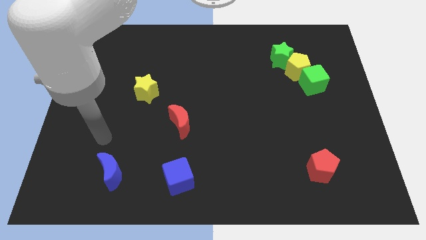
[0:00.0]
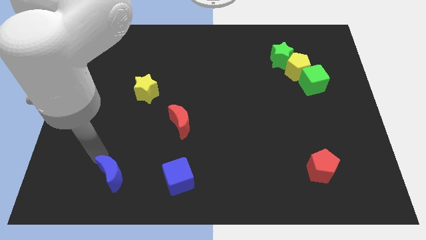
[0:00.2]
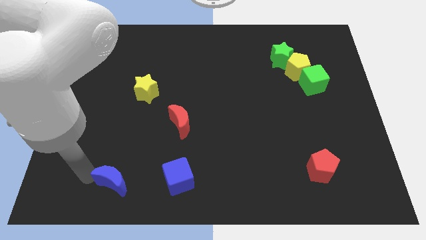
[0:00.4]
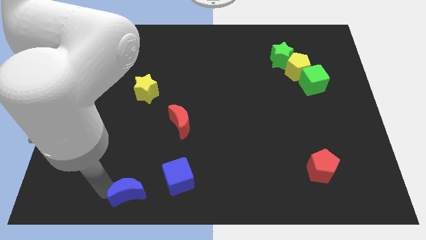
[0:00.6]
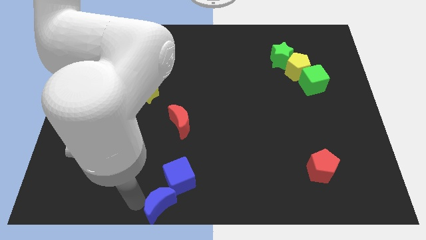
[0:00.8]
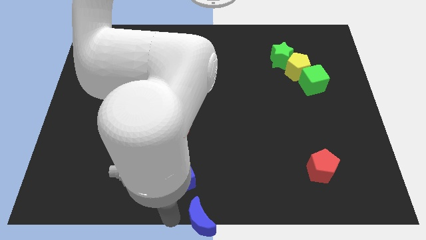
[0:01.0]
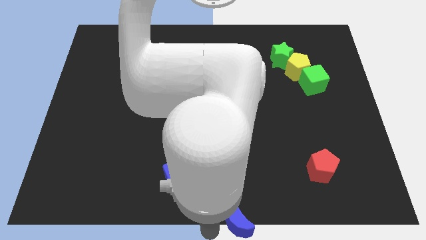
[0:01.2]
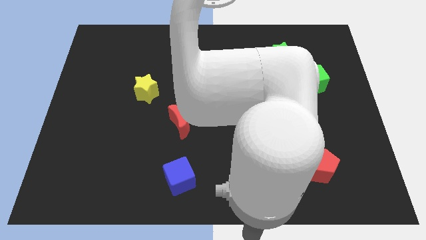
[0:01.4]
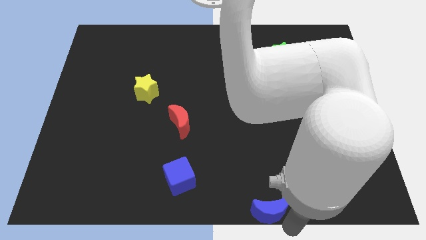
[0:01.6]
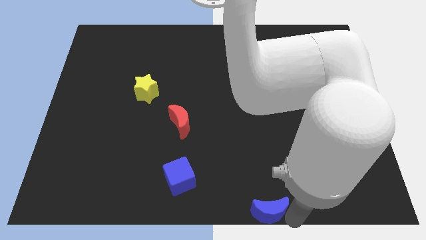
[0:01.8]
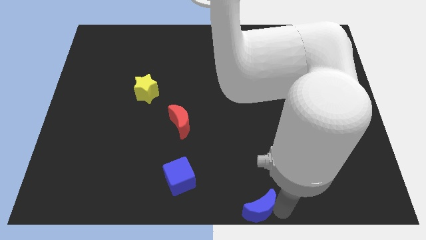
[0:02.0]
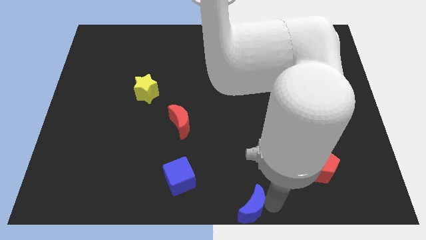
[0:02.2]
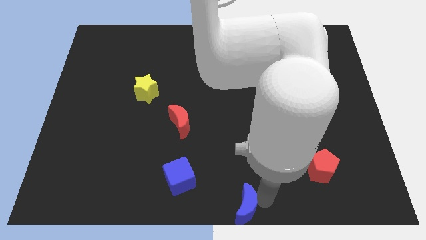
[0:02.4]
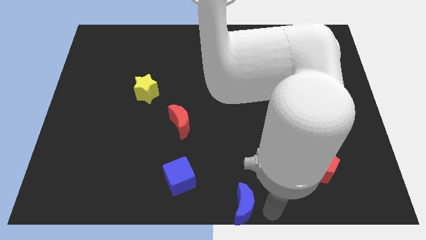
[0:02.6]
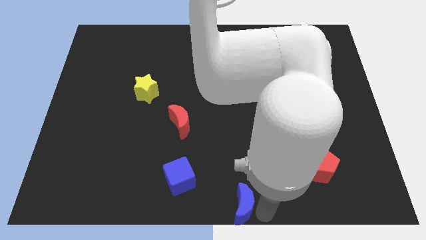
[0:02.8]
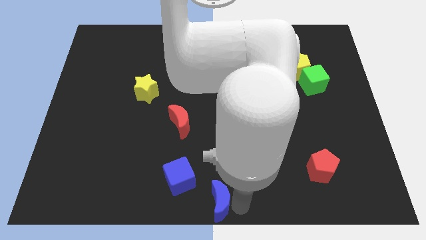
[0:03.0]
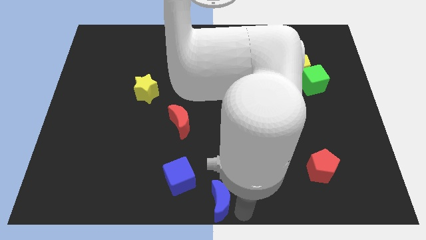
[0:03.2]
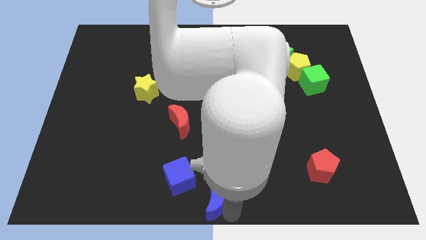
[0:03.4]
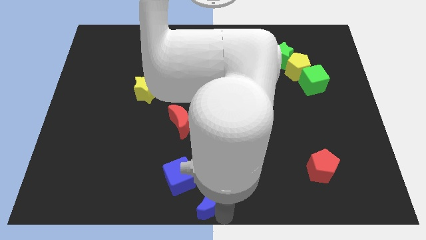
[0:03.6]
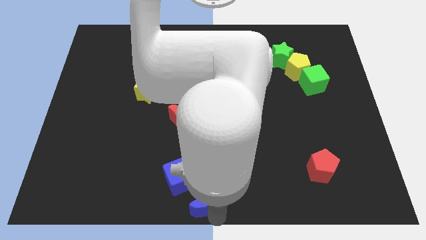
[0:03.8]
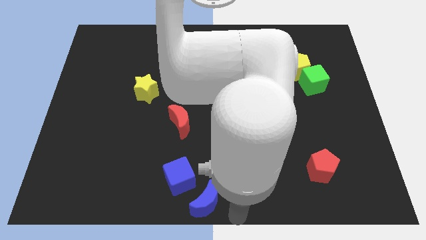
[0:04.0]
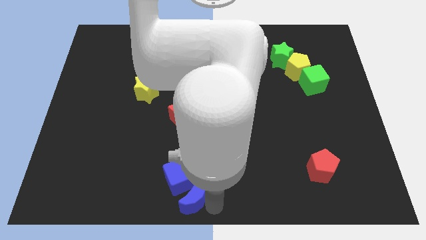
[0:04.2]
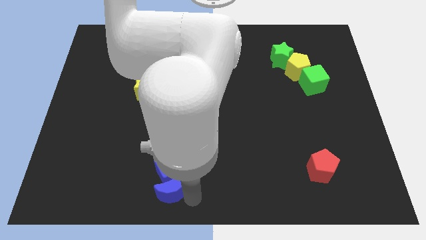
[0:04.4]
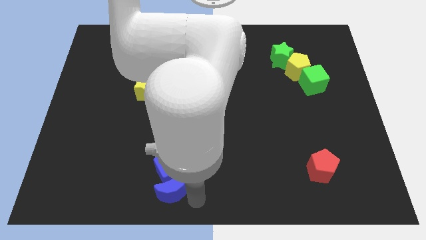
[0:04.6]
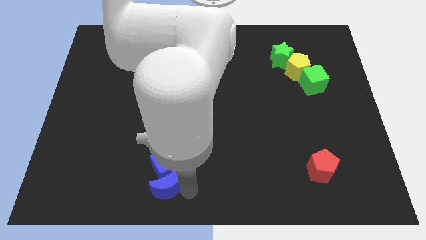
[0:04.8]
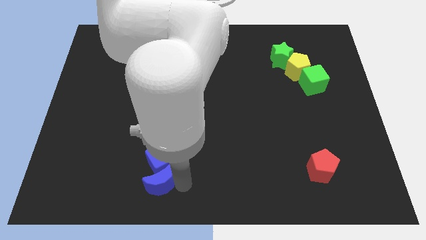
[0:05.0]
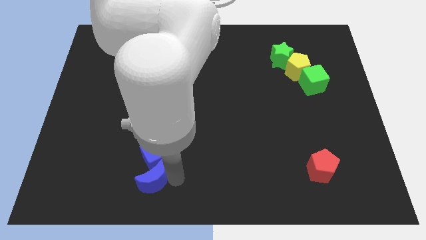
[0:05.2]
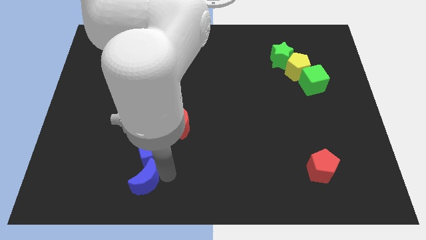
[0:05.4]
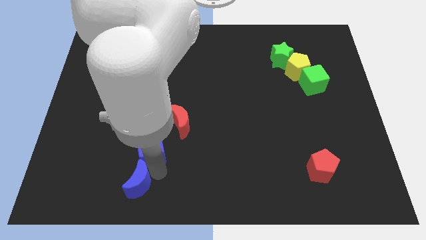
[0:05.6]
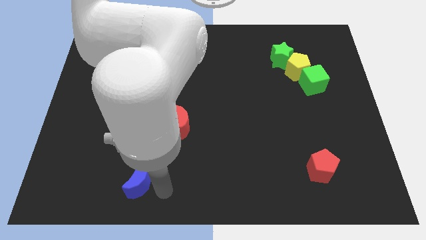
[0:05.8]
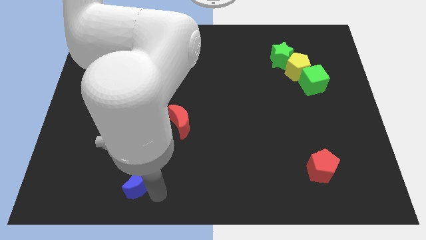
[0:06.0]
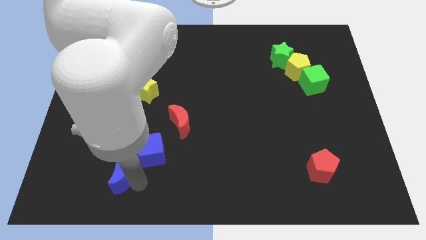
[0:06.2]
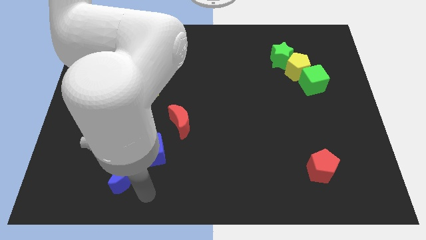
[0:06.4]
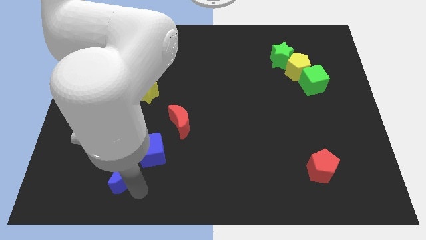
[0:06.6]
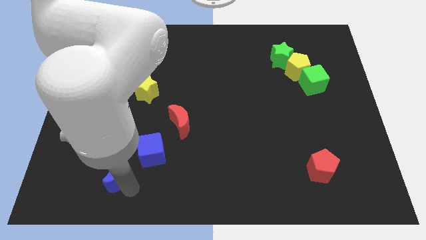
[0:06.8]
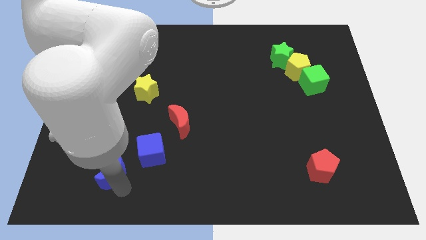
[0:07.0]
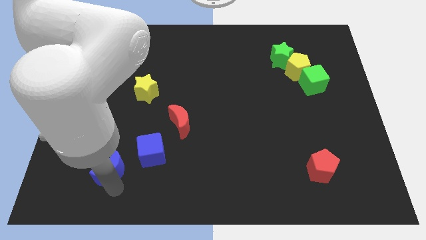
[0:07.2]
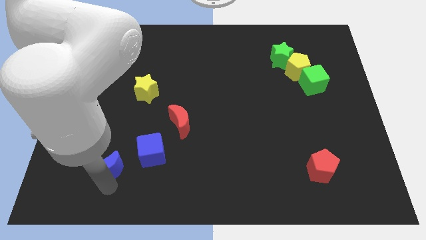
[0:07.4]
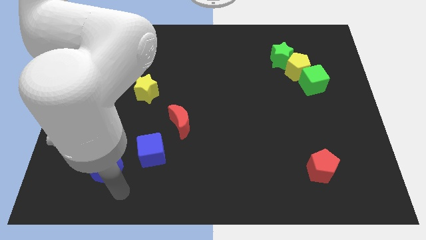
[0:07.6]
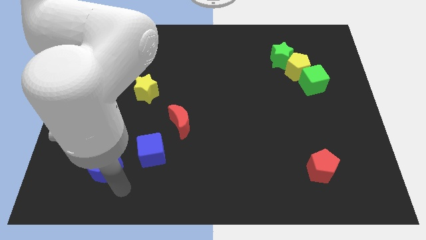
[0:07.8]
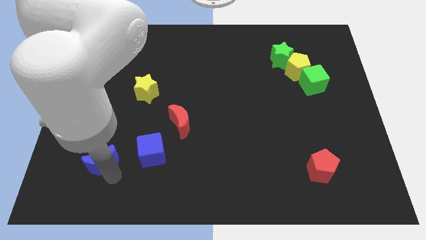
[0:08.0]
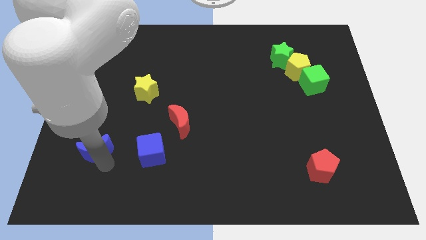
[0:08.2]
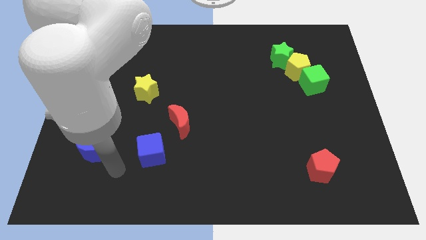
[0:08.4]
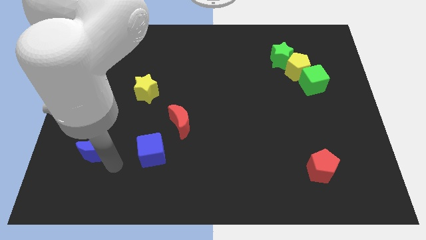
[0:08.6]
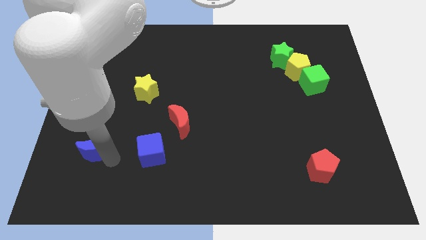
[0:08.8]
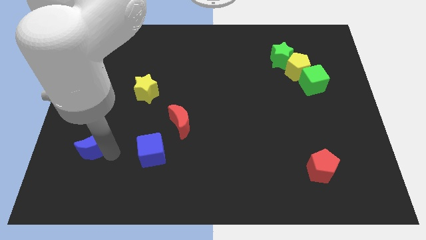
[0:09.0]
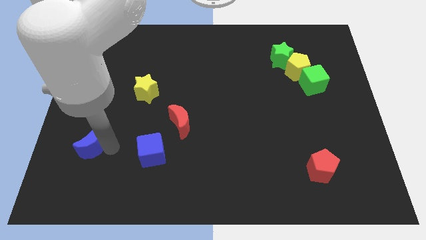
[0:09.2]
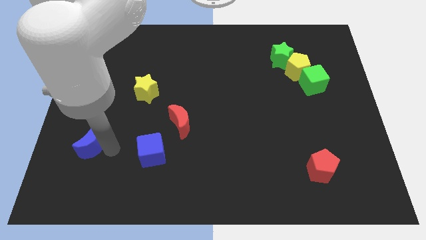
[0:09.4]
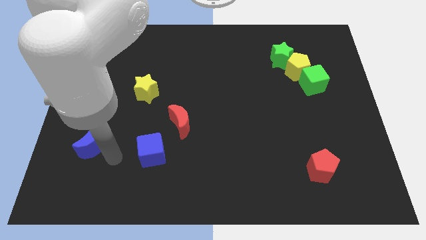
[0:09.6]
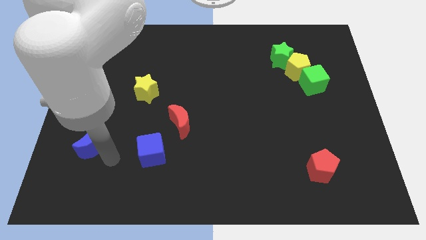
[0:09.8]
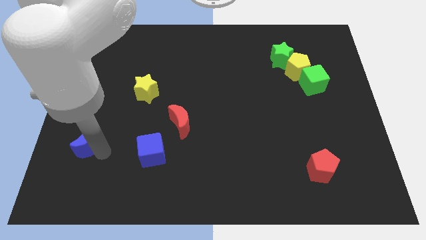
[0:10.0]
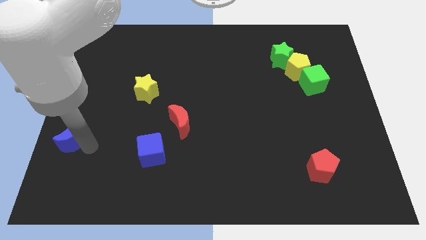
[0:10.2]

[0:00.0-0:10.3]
put the blue moon to the center left

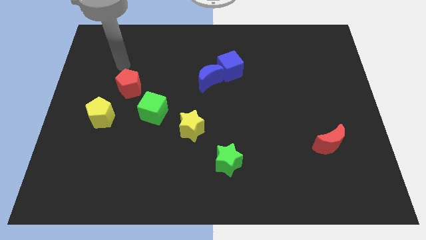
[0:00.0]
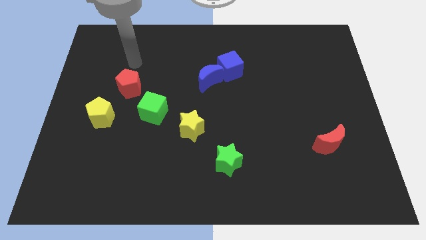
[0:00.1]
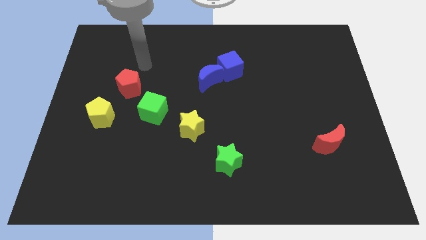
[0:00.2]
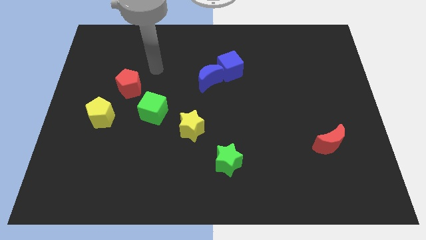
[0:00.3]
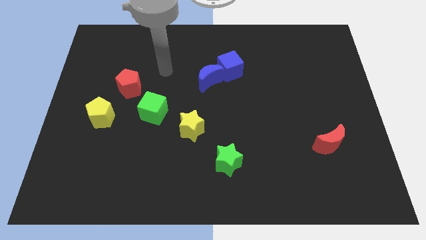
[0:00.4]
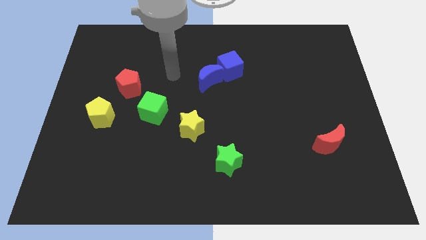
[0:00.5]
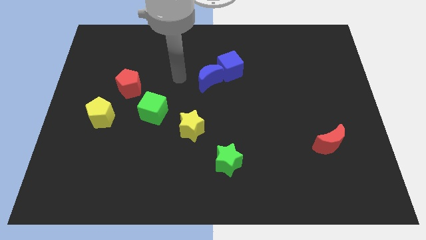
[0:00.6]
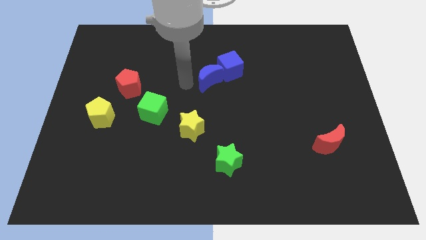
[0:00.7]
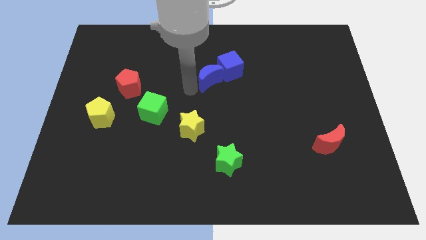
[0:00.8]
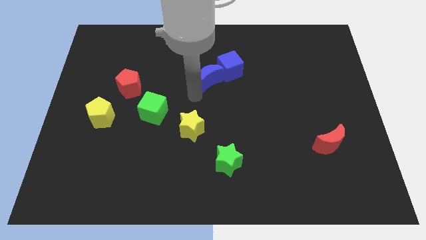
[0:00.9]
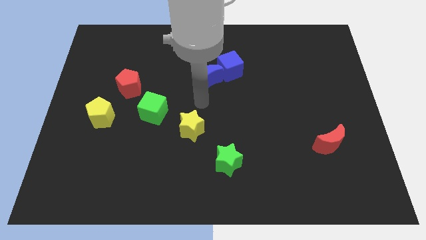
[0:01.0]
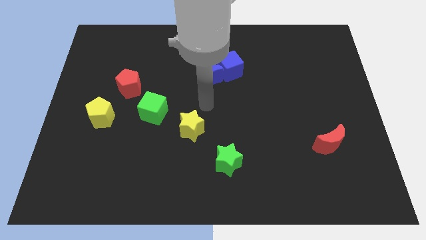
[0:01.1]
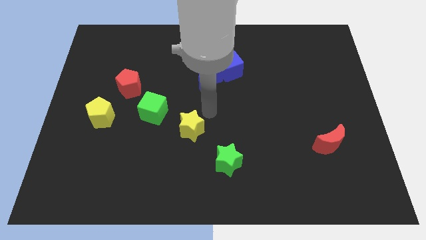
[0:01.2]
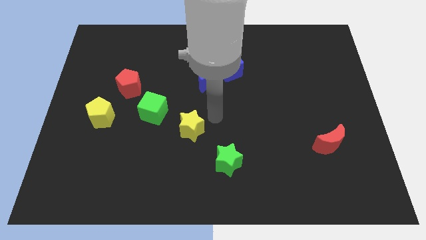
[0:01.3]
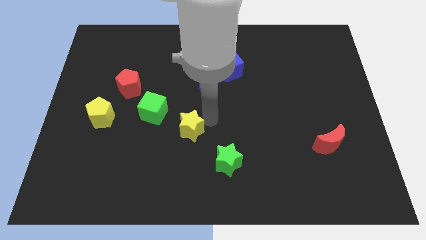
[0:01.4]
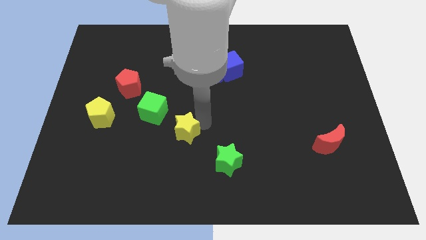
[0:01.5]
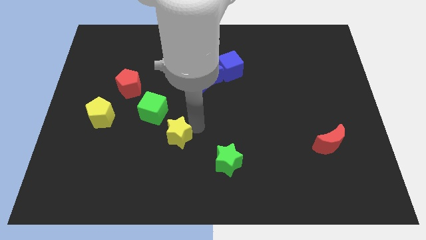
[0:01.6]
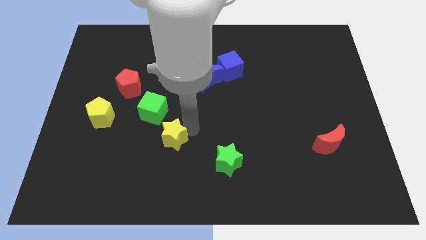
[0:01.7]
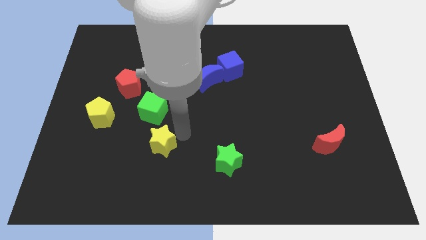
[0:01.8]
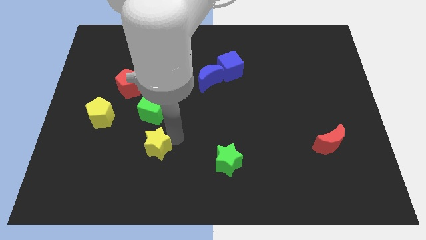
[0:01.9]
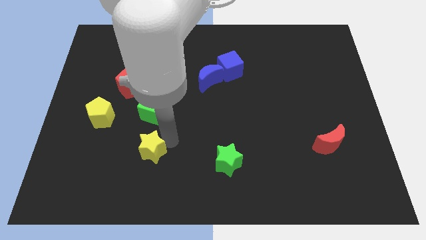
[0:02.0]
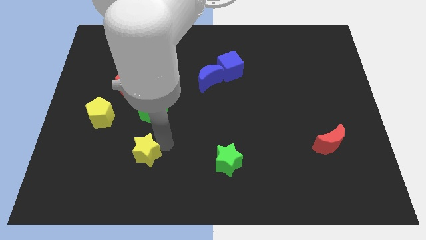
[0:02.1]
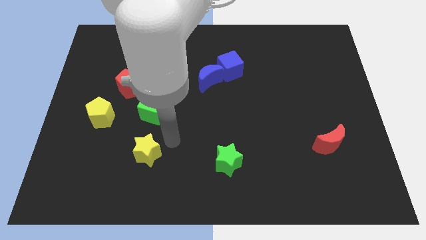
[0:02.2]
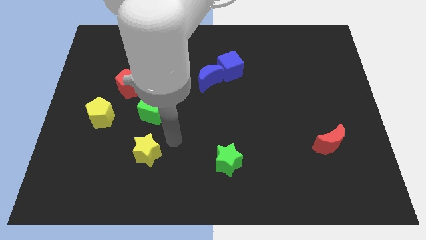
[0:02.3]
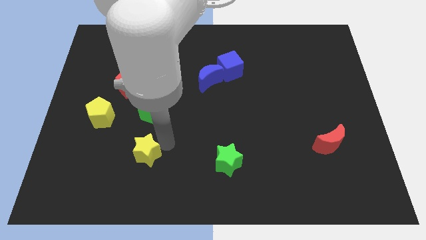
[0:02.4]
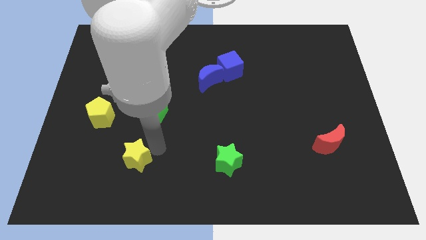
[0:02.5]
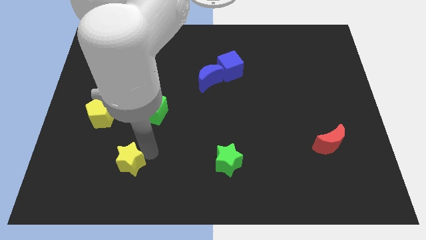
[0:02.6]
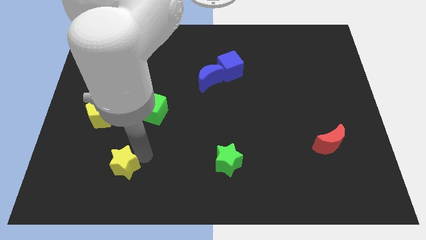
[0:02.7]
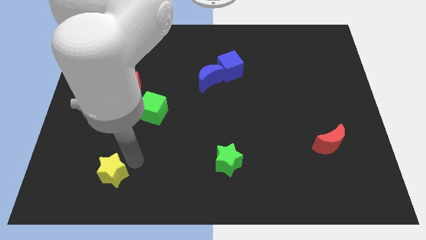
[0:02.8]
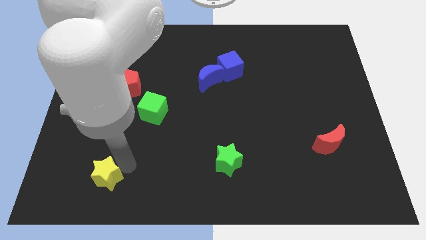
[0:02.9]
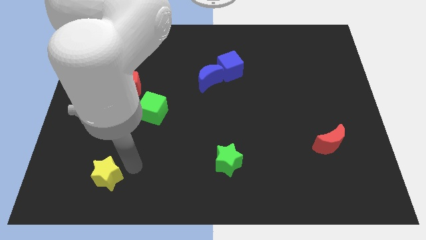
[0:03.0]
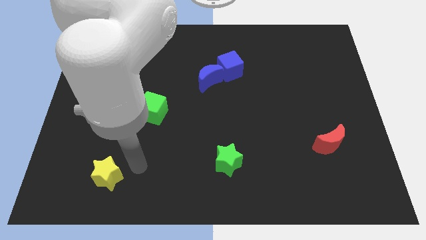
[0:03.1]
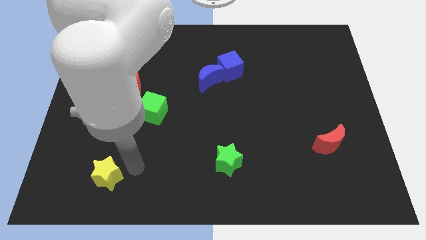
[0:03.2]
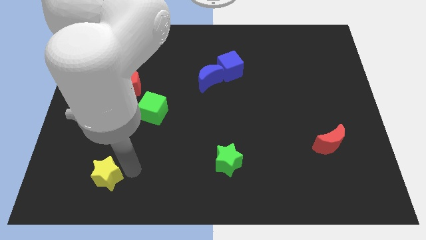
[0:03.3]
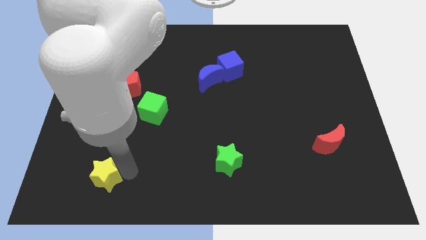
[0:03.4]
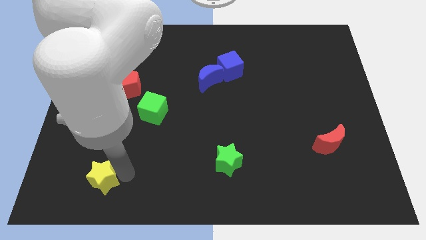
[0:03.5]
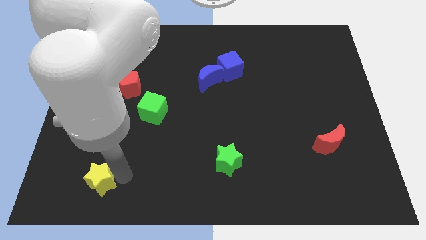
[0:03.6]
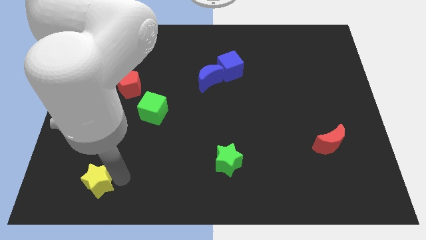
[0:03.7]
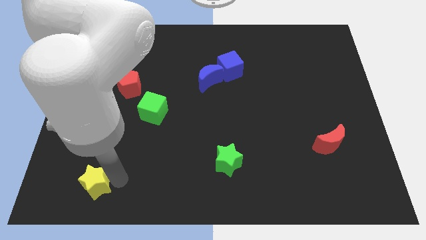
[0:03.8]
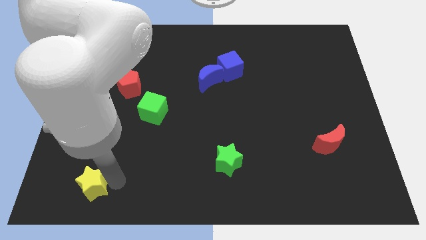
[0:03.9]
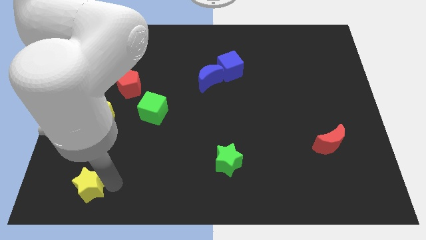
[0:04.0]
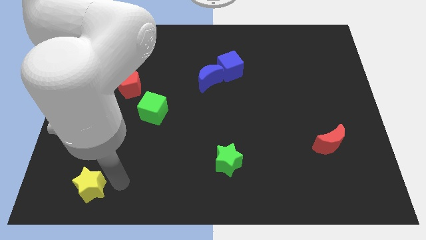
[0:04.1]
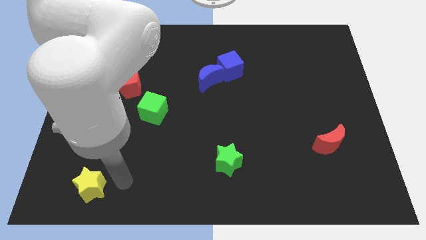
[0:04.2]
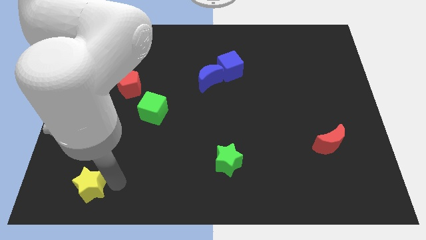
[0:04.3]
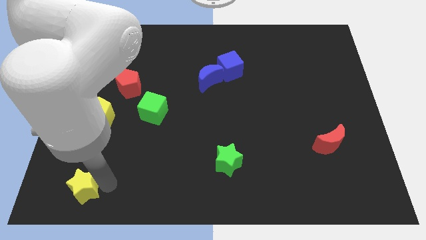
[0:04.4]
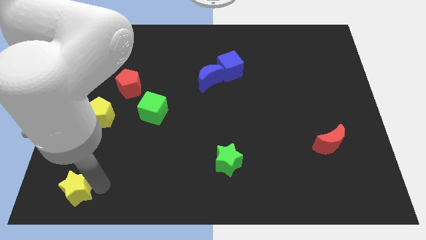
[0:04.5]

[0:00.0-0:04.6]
move the yellow star to the lower left corner
